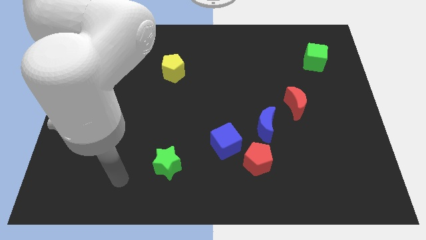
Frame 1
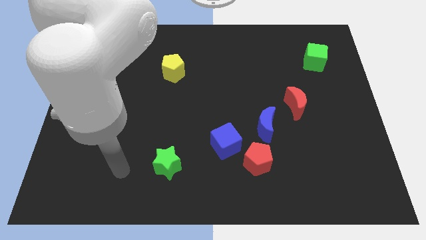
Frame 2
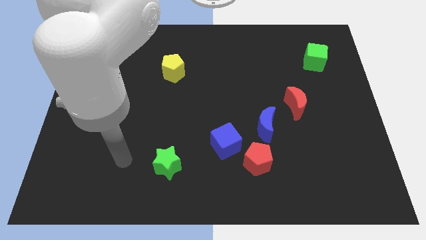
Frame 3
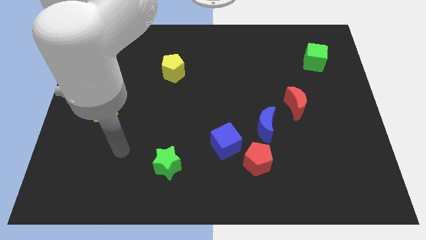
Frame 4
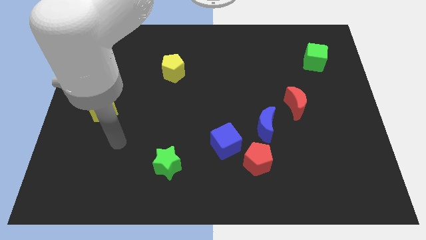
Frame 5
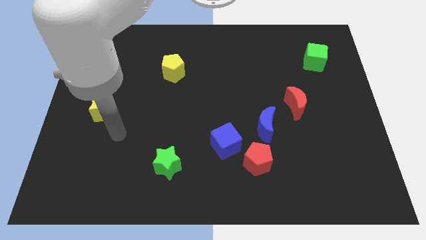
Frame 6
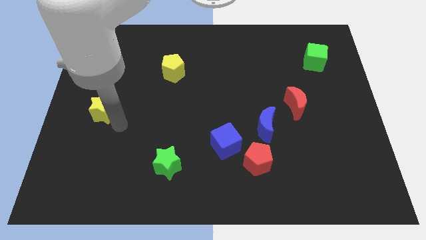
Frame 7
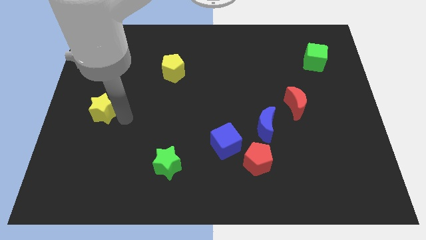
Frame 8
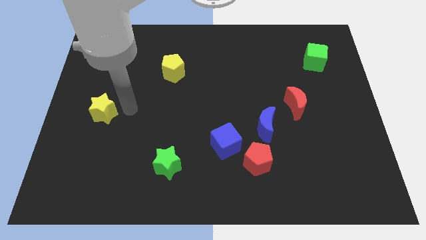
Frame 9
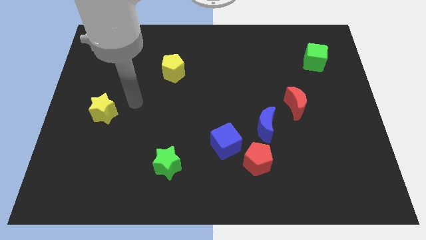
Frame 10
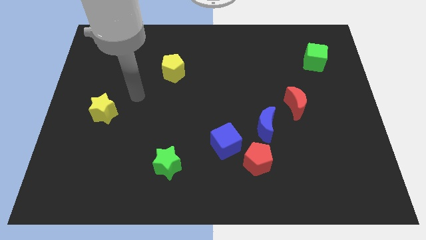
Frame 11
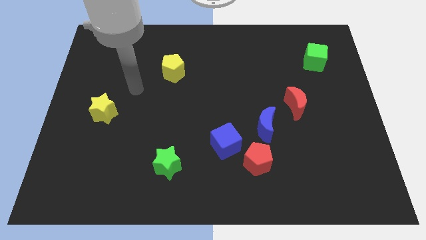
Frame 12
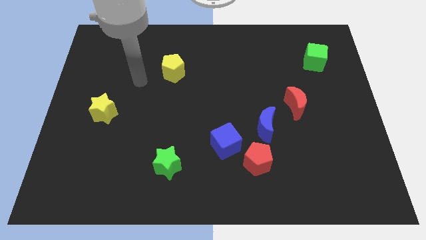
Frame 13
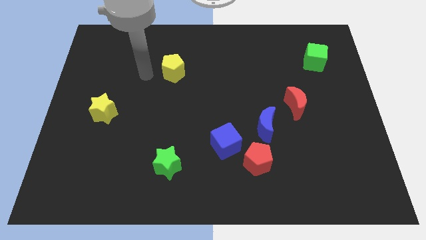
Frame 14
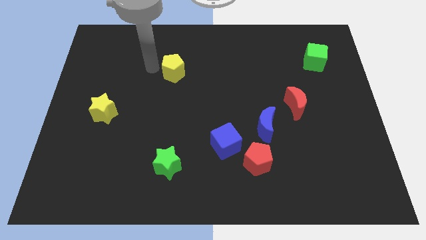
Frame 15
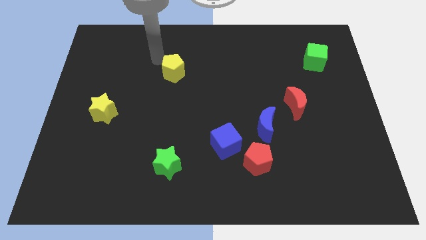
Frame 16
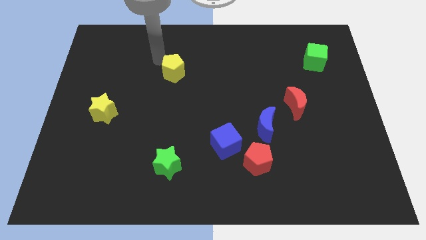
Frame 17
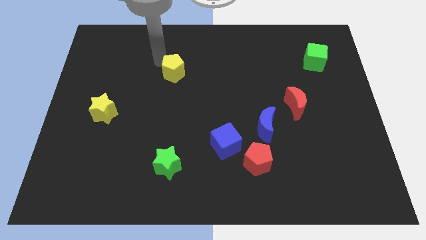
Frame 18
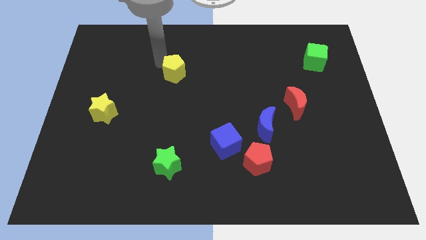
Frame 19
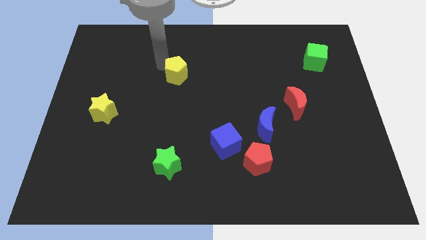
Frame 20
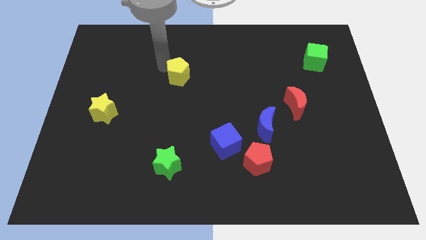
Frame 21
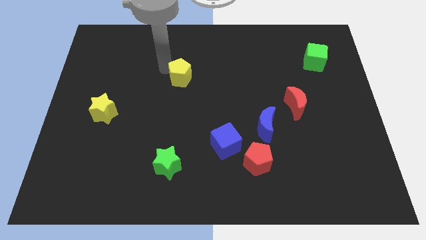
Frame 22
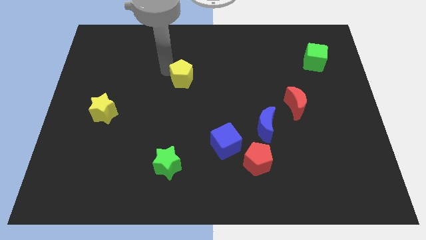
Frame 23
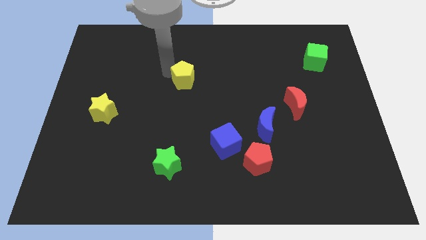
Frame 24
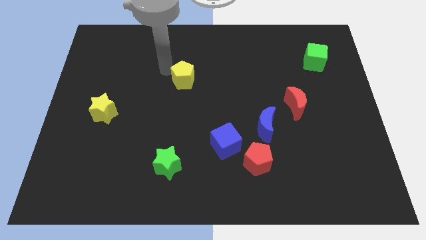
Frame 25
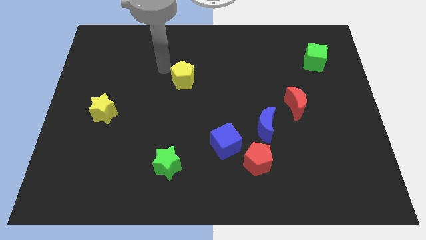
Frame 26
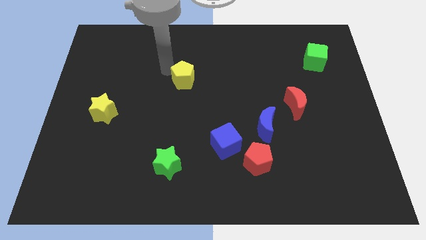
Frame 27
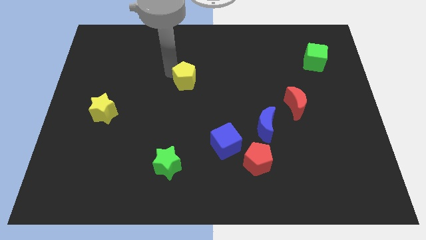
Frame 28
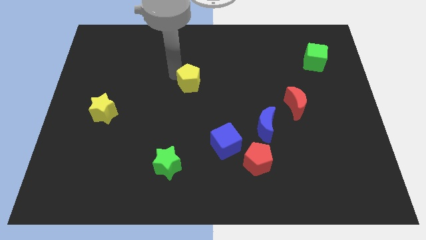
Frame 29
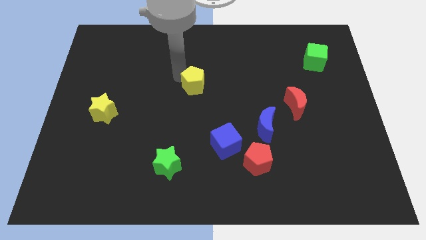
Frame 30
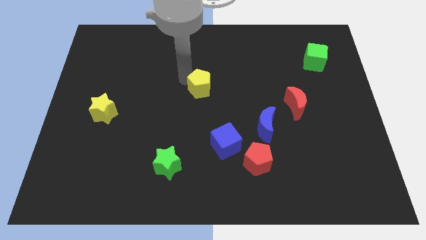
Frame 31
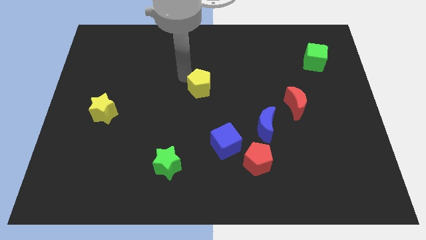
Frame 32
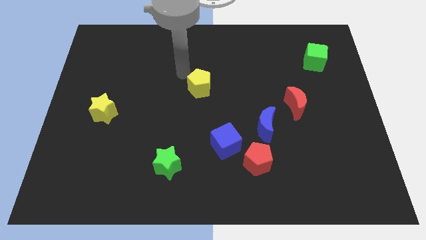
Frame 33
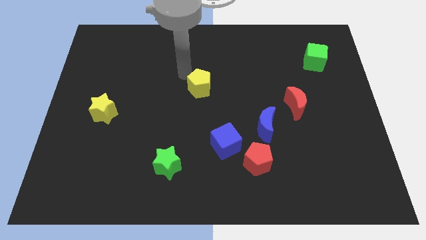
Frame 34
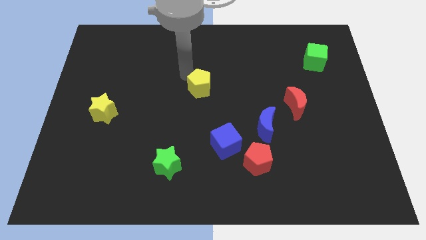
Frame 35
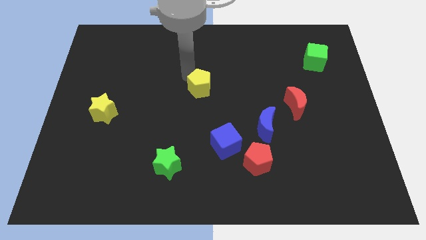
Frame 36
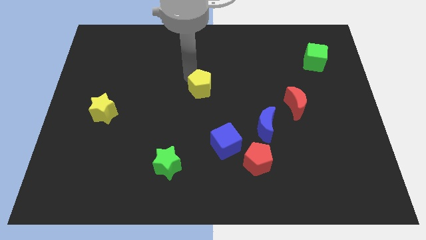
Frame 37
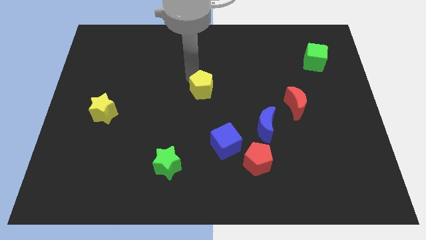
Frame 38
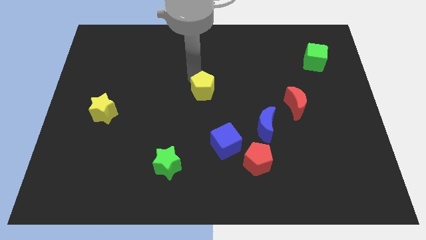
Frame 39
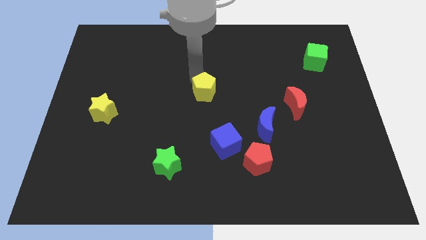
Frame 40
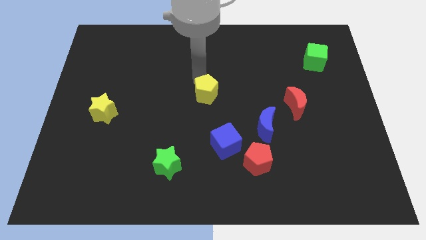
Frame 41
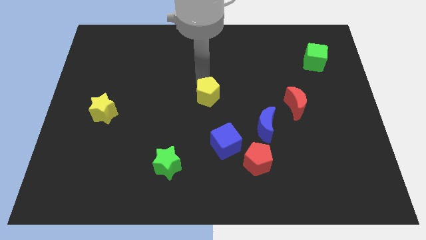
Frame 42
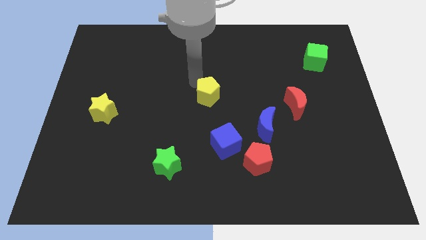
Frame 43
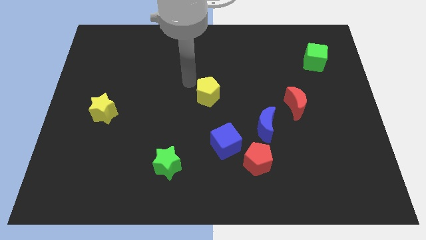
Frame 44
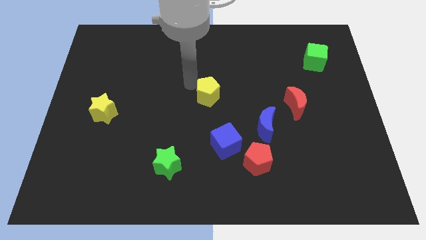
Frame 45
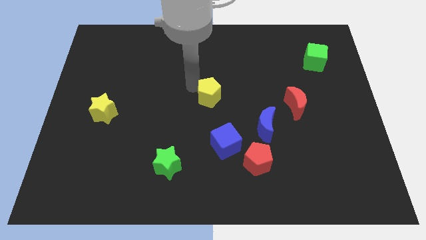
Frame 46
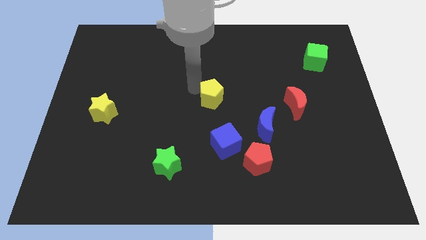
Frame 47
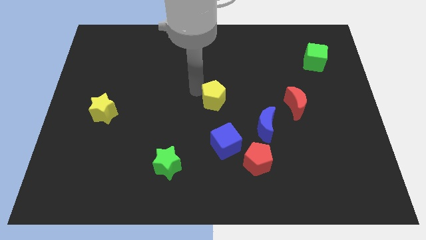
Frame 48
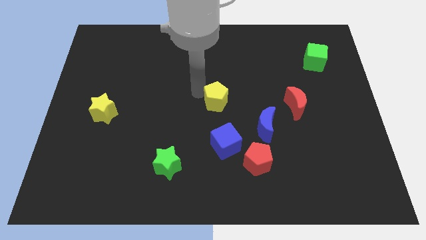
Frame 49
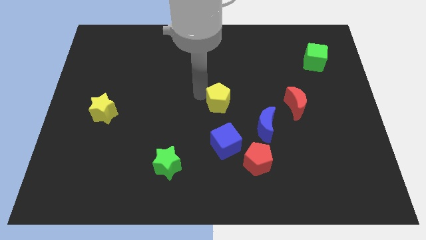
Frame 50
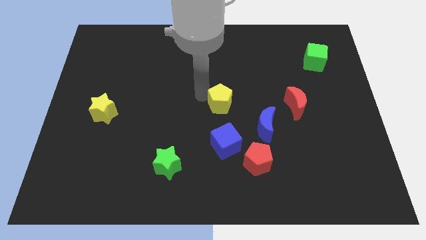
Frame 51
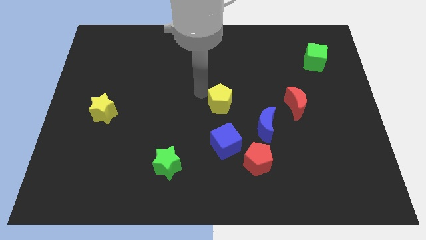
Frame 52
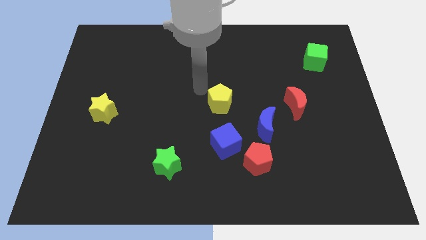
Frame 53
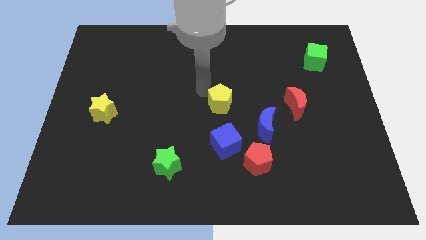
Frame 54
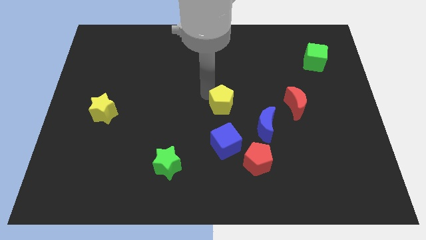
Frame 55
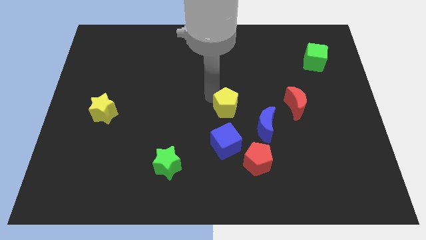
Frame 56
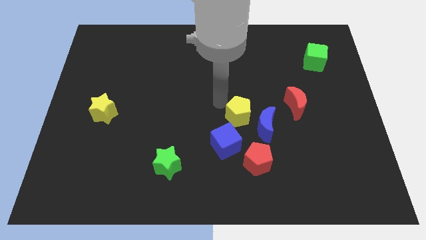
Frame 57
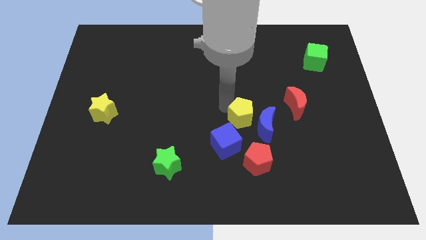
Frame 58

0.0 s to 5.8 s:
push the yellow pentagon next to the blue moon
